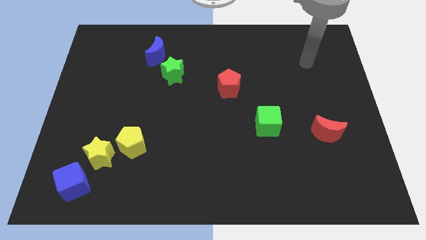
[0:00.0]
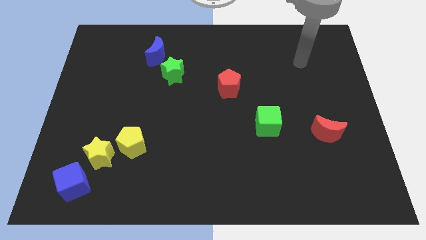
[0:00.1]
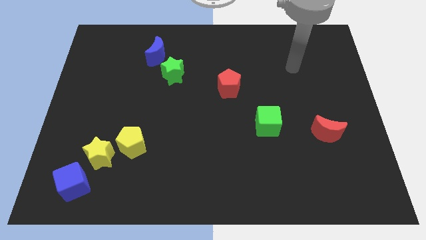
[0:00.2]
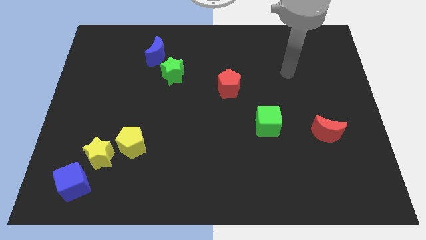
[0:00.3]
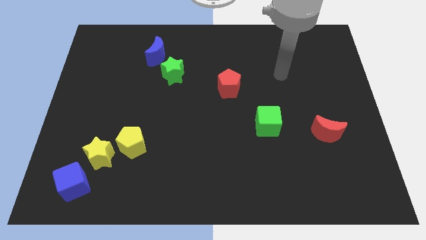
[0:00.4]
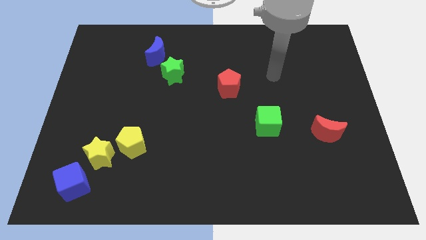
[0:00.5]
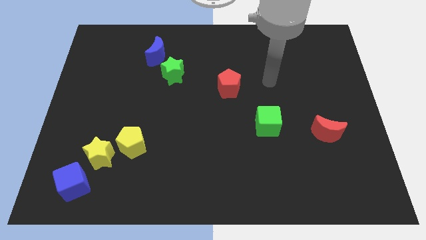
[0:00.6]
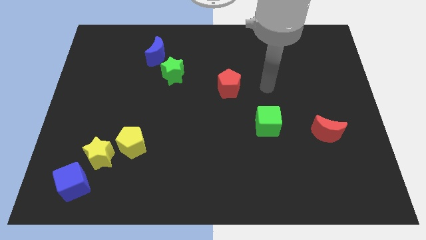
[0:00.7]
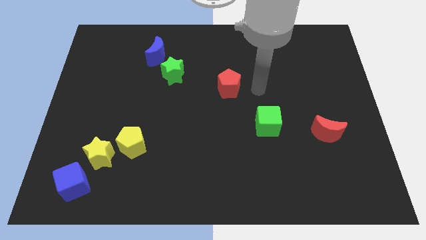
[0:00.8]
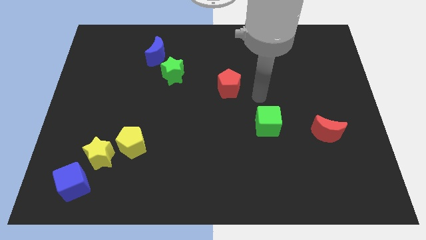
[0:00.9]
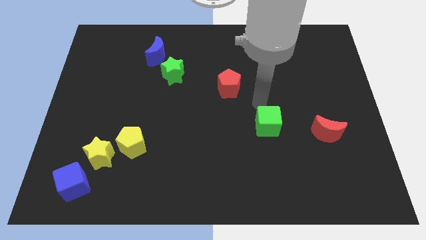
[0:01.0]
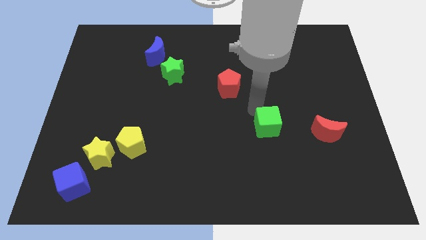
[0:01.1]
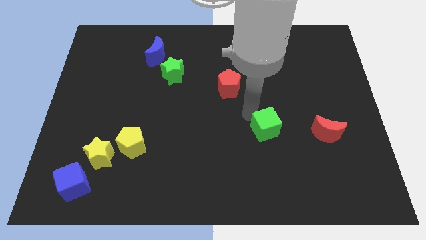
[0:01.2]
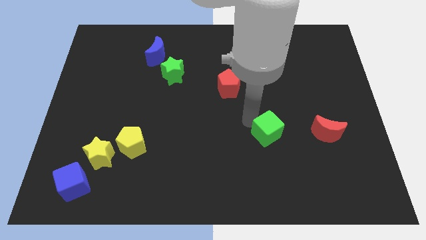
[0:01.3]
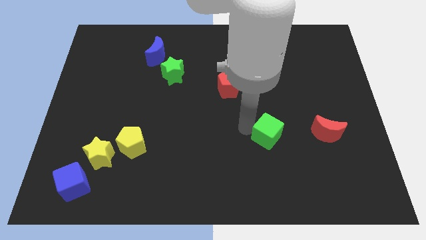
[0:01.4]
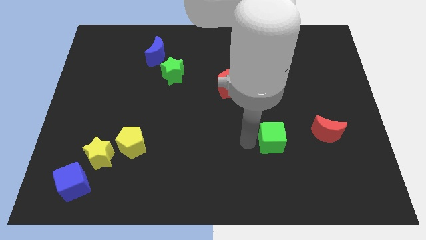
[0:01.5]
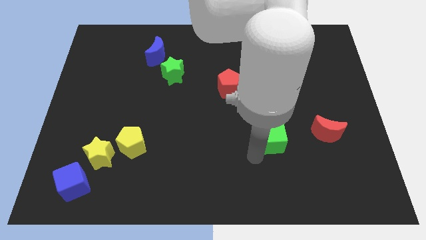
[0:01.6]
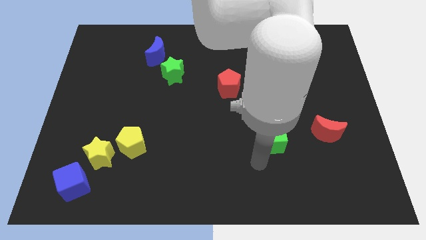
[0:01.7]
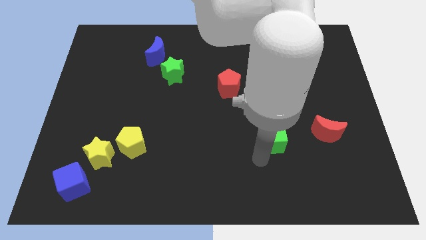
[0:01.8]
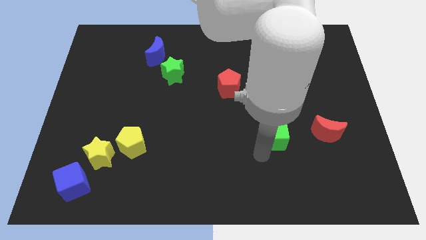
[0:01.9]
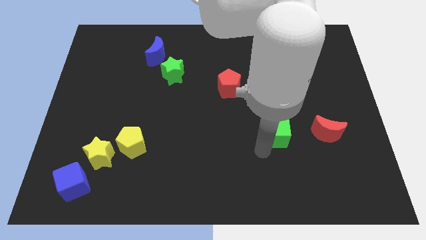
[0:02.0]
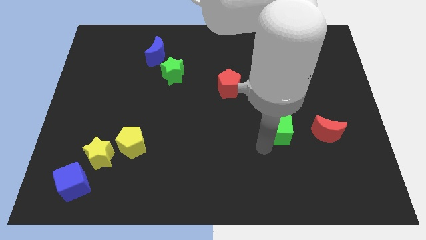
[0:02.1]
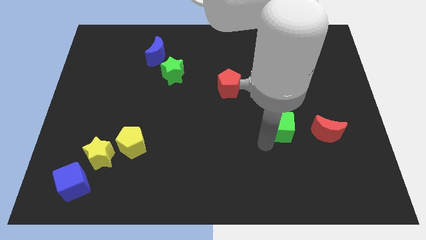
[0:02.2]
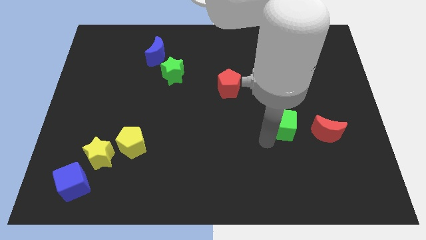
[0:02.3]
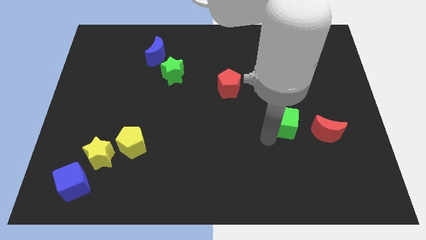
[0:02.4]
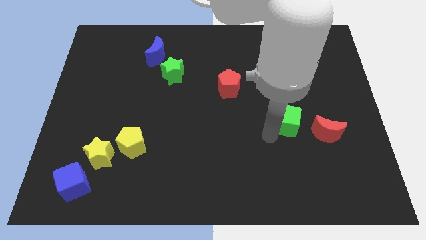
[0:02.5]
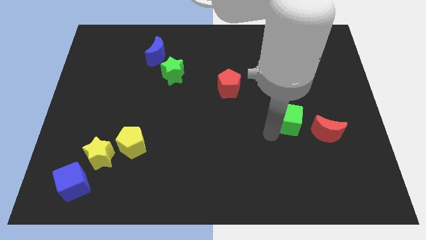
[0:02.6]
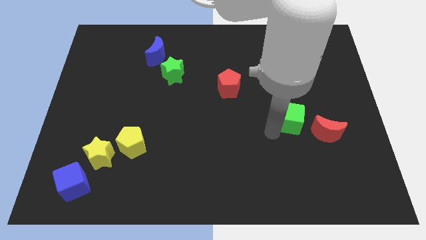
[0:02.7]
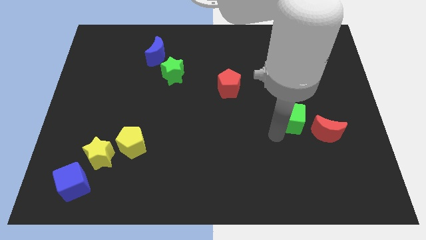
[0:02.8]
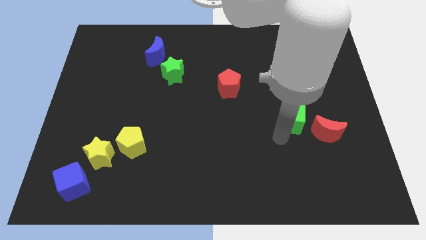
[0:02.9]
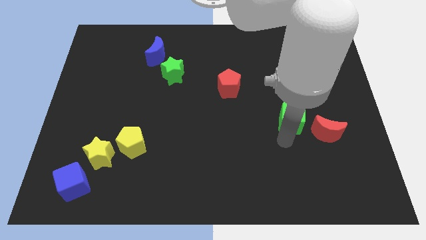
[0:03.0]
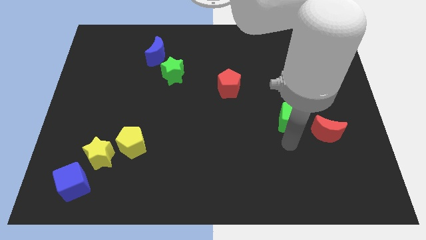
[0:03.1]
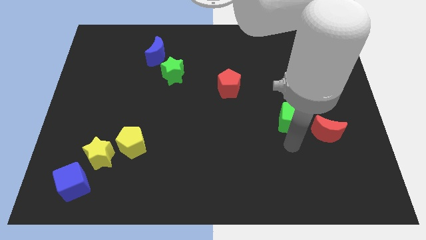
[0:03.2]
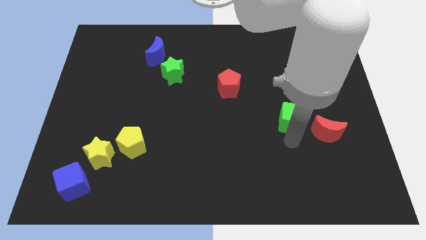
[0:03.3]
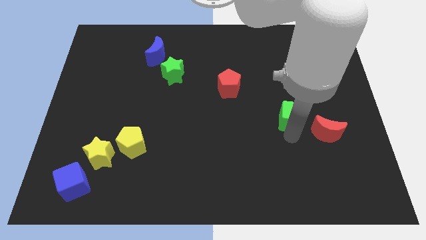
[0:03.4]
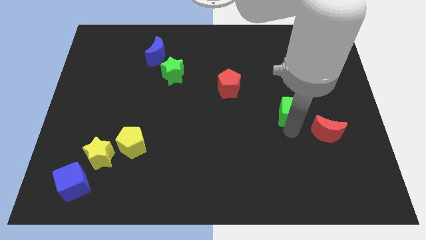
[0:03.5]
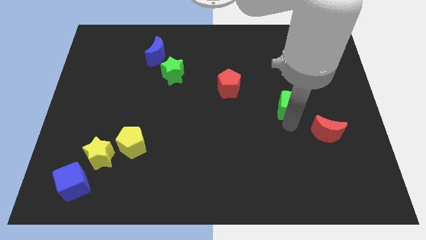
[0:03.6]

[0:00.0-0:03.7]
push the green cube a little upwards and to the right diagonally

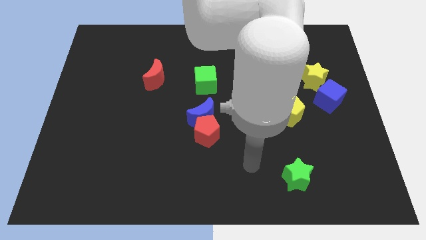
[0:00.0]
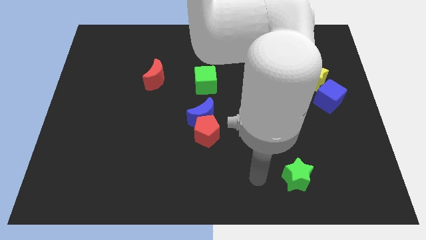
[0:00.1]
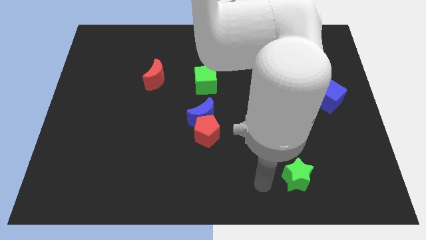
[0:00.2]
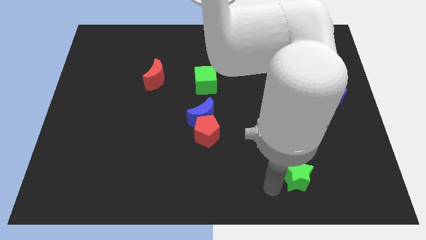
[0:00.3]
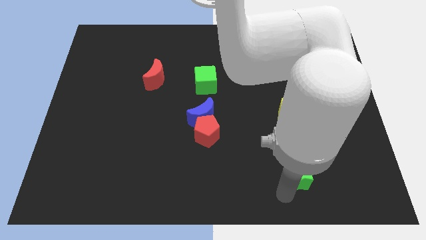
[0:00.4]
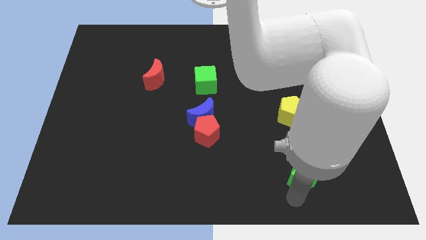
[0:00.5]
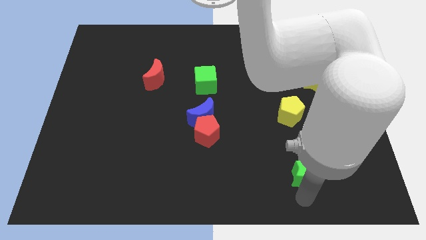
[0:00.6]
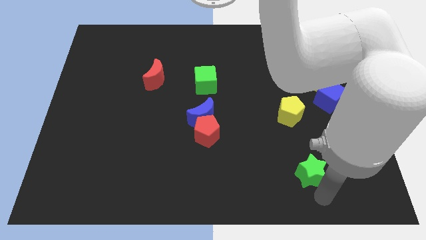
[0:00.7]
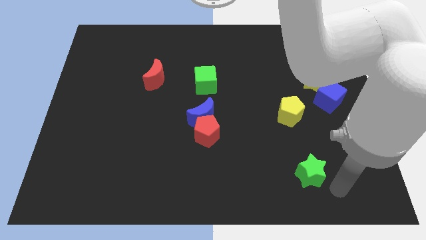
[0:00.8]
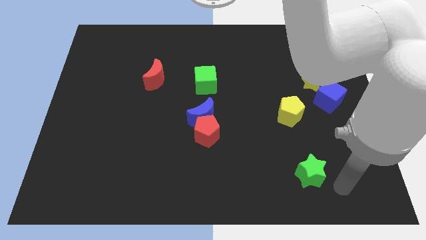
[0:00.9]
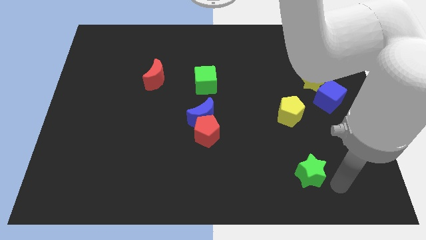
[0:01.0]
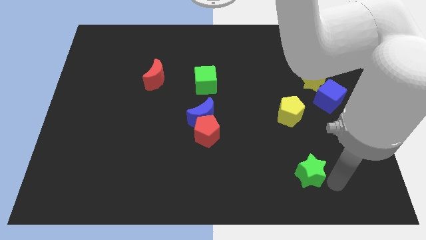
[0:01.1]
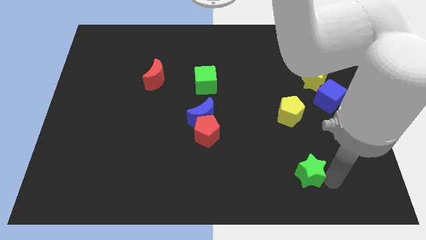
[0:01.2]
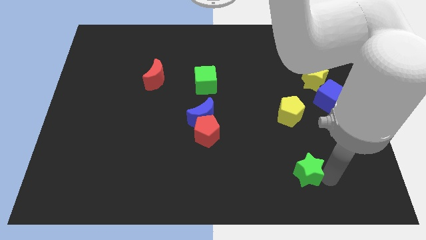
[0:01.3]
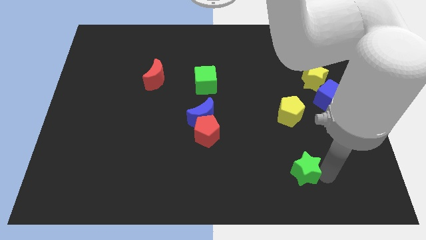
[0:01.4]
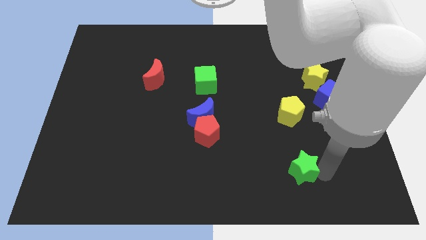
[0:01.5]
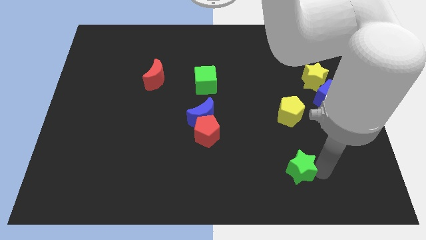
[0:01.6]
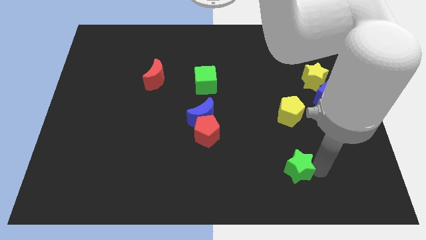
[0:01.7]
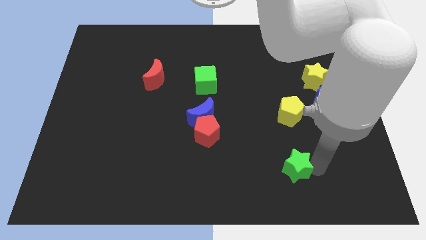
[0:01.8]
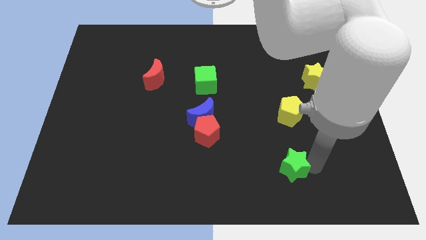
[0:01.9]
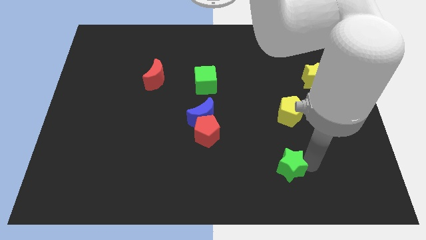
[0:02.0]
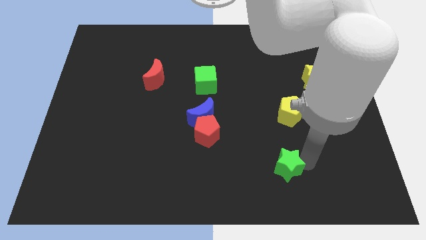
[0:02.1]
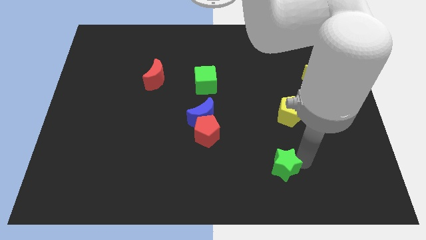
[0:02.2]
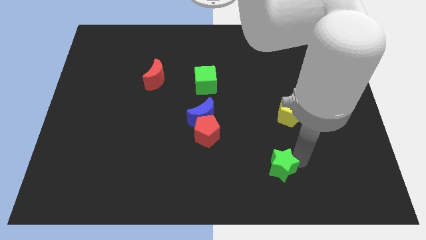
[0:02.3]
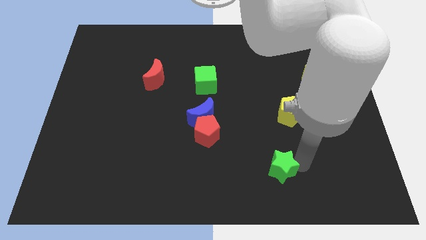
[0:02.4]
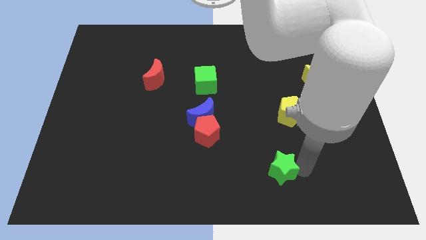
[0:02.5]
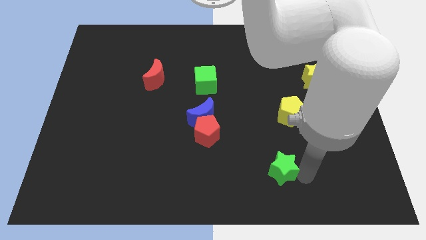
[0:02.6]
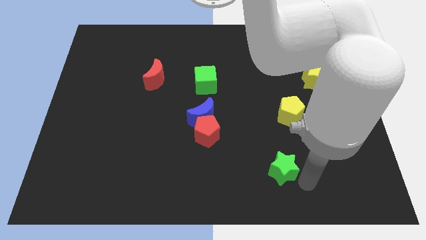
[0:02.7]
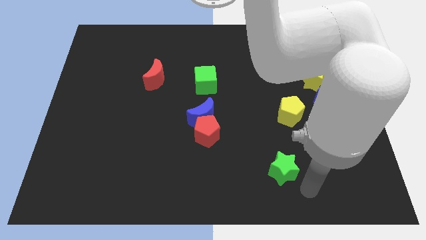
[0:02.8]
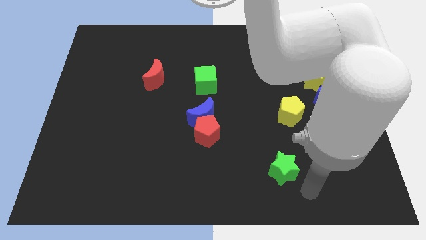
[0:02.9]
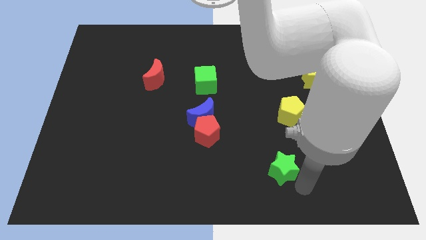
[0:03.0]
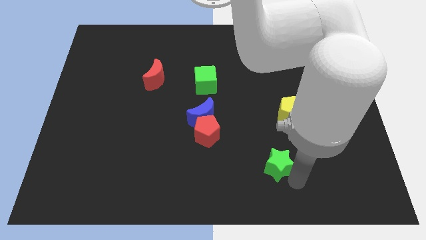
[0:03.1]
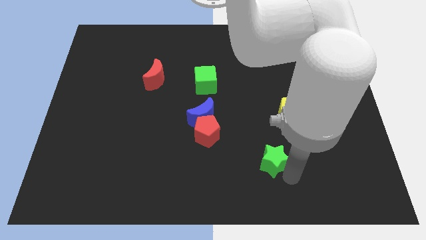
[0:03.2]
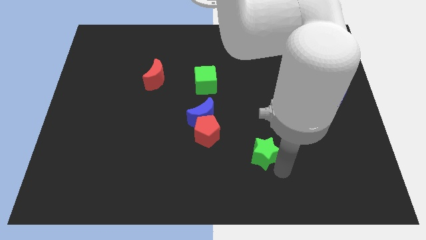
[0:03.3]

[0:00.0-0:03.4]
push the green star upwards and then to the left a bit

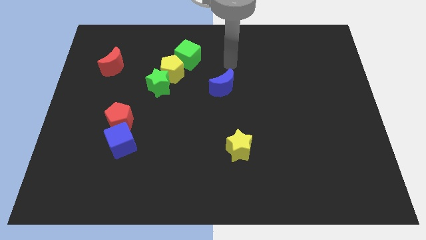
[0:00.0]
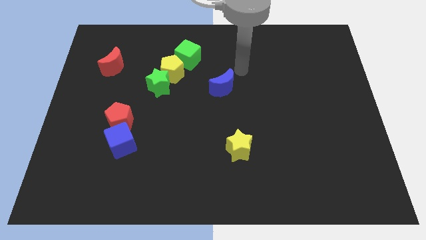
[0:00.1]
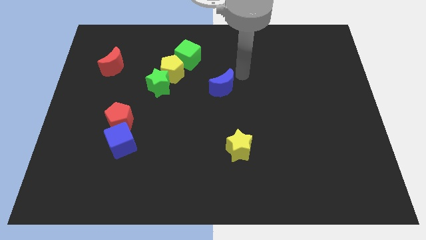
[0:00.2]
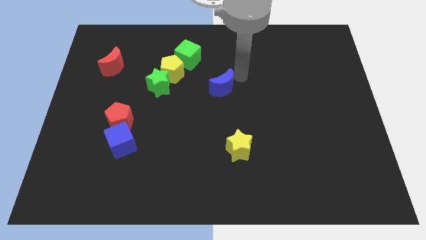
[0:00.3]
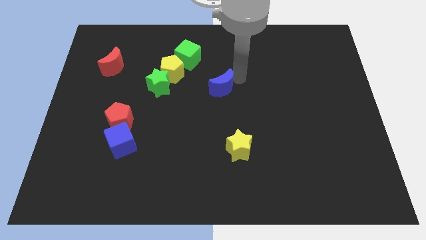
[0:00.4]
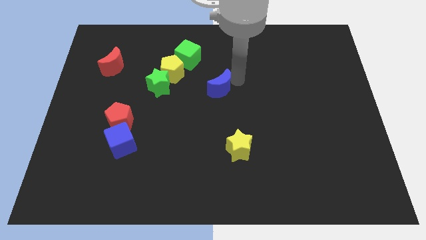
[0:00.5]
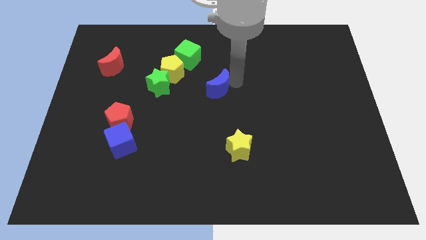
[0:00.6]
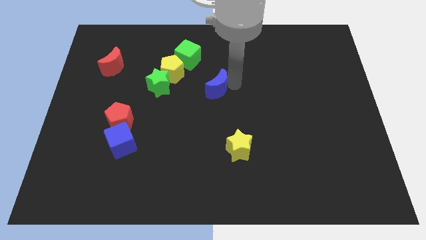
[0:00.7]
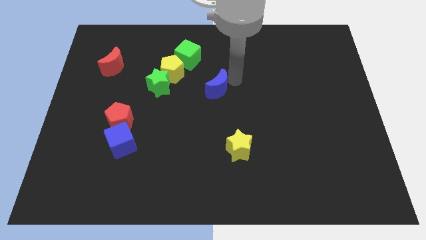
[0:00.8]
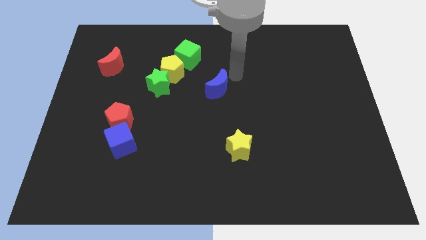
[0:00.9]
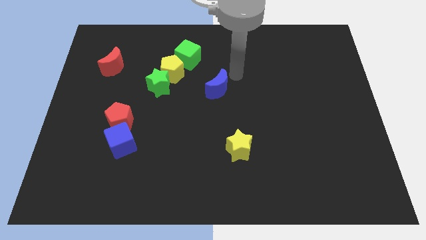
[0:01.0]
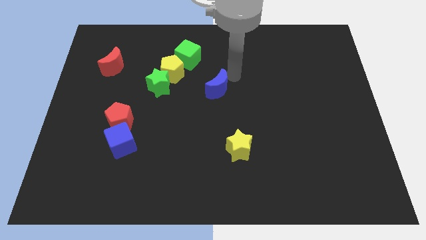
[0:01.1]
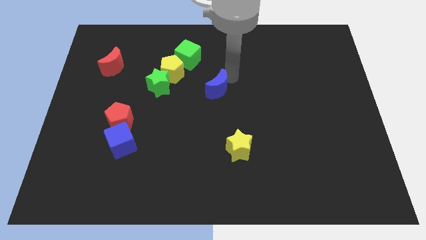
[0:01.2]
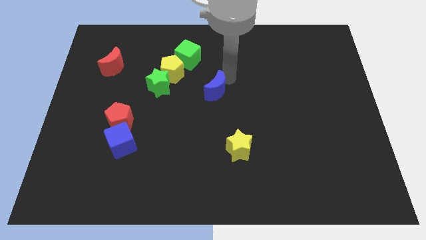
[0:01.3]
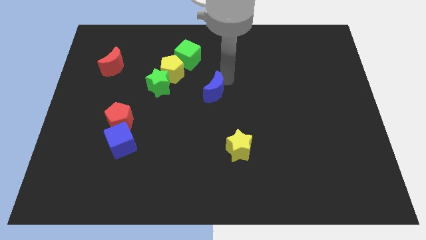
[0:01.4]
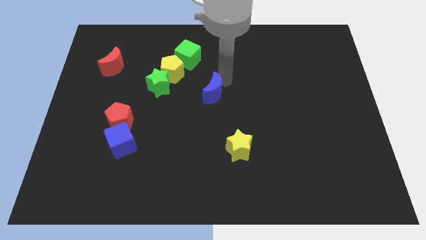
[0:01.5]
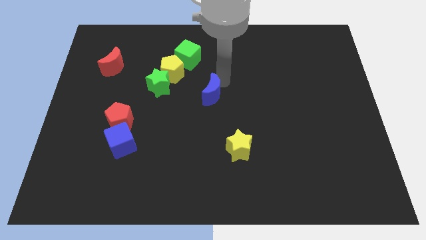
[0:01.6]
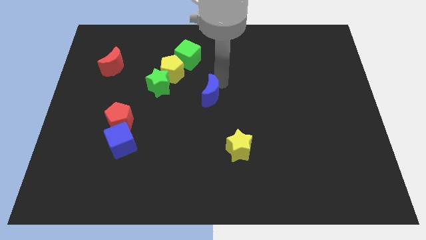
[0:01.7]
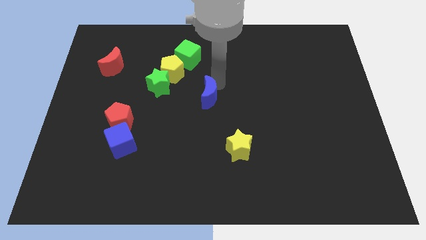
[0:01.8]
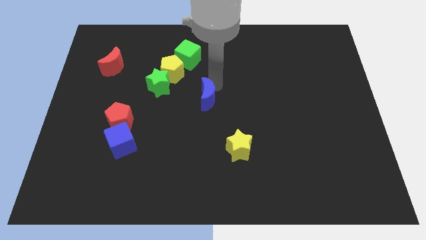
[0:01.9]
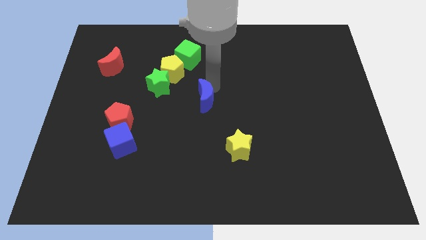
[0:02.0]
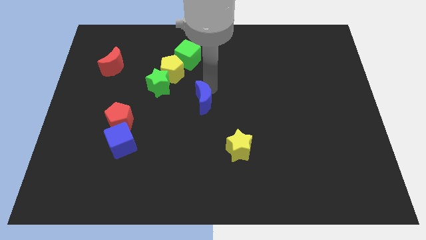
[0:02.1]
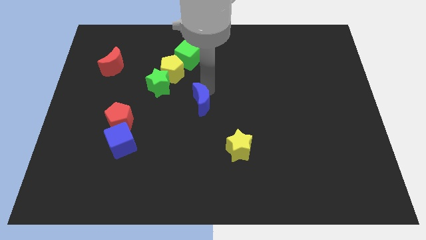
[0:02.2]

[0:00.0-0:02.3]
slightly push the blue moon downwards and left diagonally
